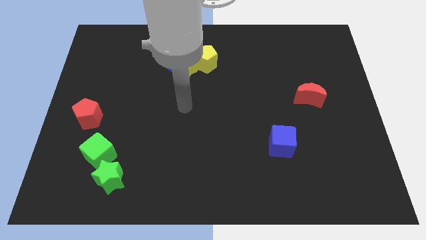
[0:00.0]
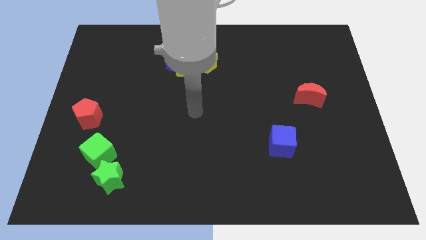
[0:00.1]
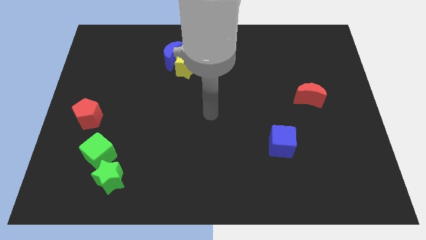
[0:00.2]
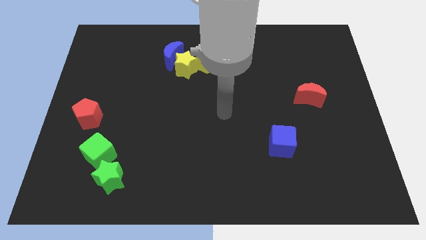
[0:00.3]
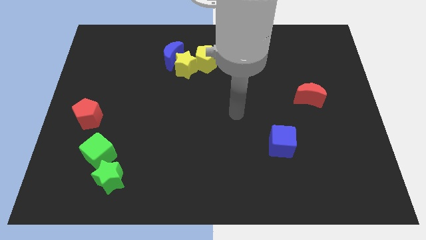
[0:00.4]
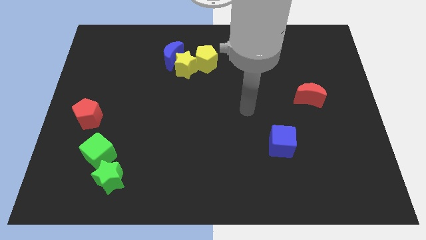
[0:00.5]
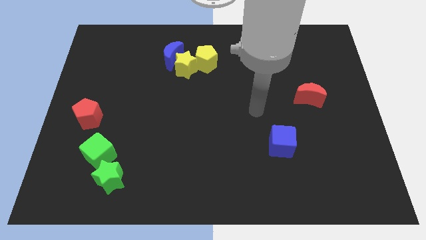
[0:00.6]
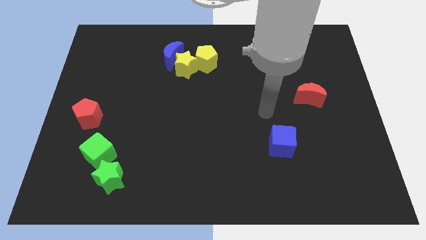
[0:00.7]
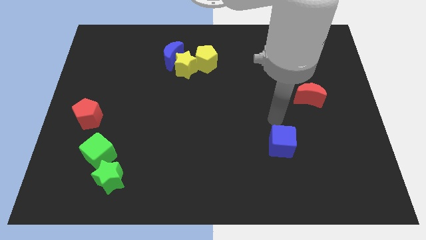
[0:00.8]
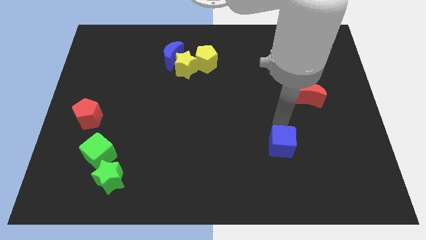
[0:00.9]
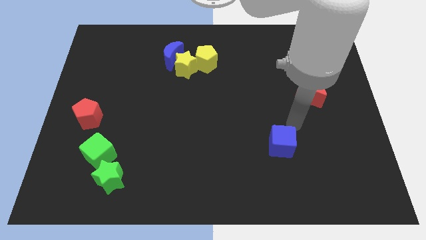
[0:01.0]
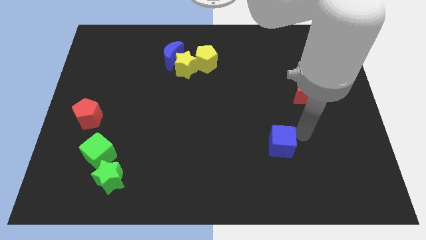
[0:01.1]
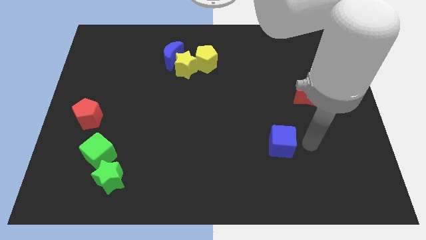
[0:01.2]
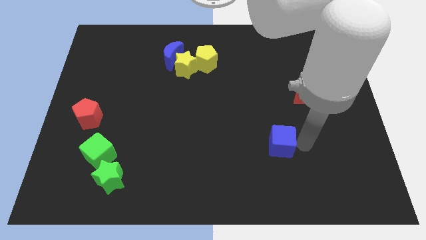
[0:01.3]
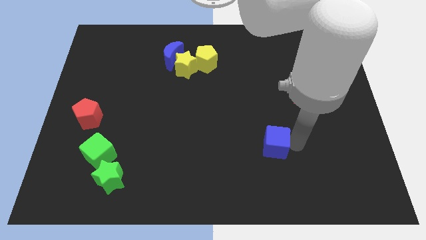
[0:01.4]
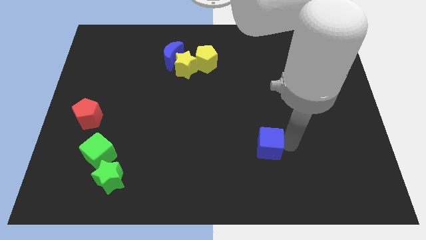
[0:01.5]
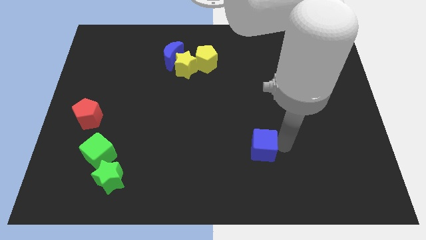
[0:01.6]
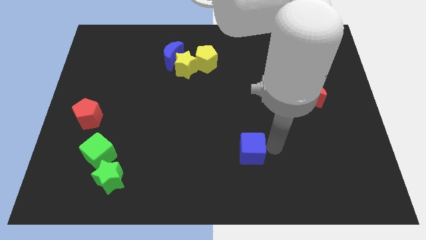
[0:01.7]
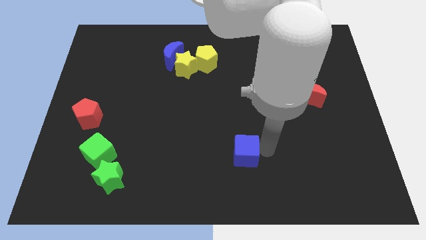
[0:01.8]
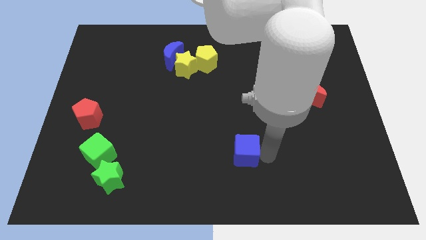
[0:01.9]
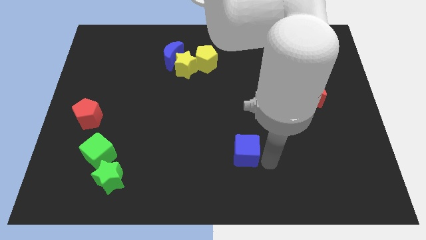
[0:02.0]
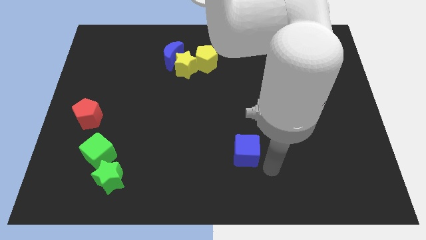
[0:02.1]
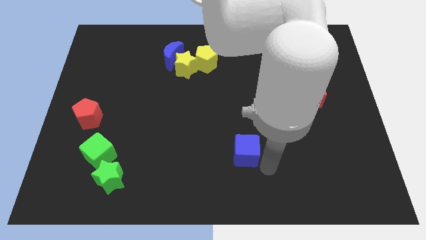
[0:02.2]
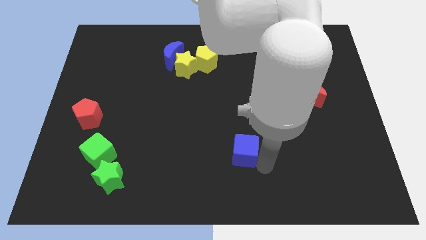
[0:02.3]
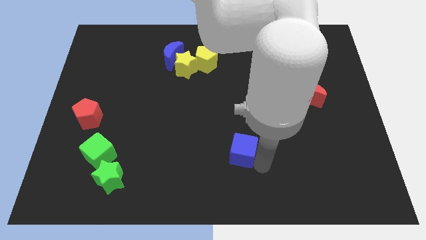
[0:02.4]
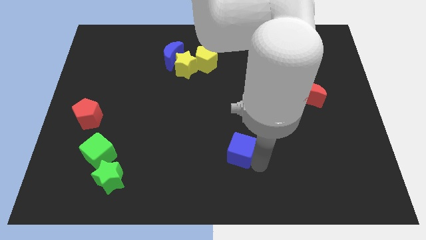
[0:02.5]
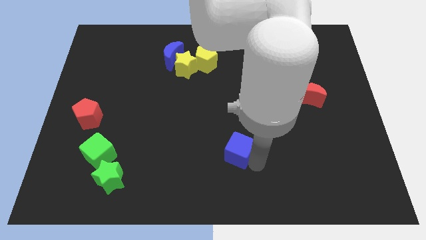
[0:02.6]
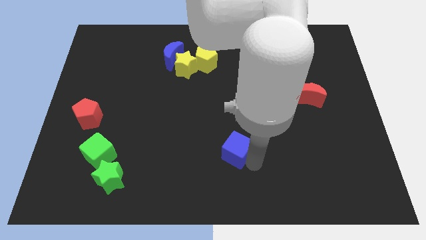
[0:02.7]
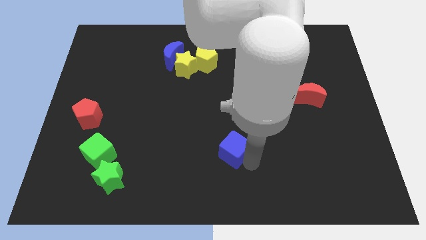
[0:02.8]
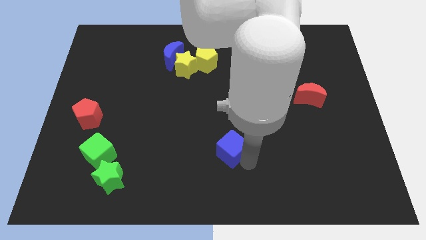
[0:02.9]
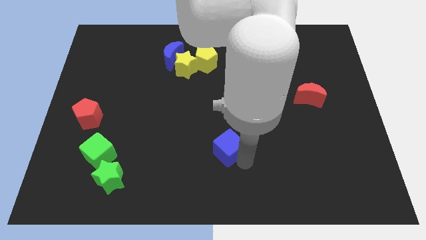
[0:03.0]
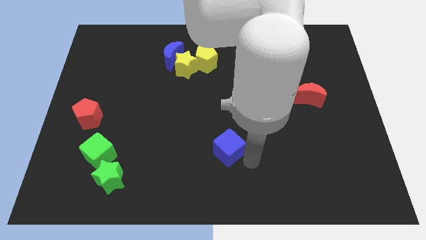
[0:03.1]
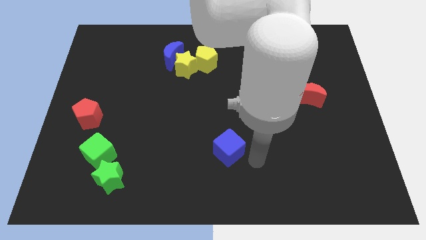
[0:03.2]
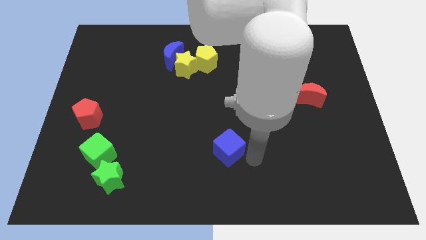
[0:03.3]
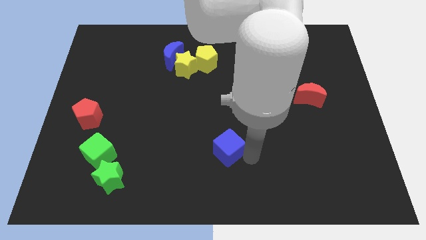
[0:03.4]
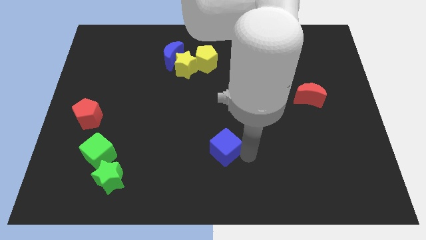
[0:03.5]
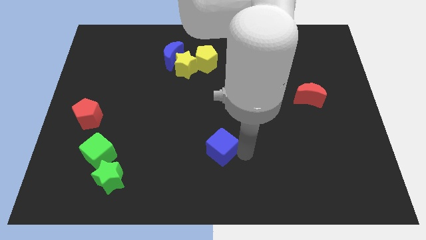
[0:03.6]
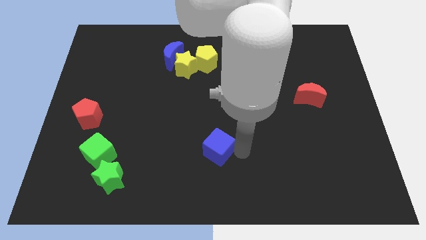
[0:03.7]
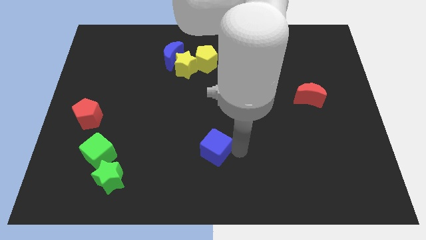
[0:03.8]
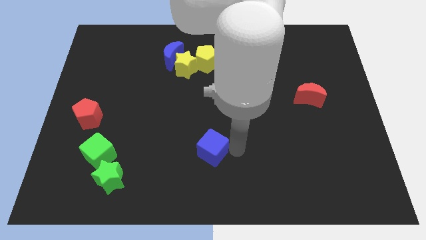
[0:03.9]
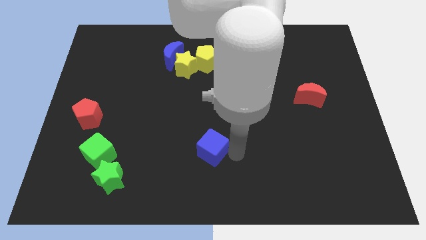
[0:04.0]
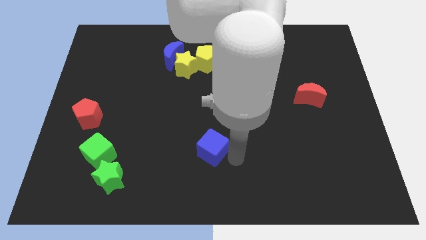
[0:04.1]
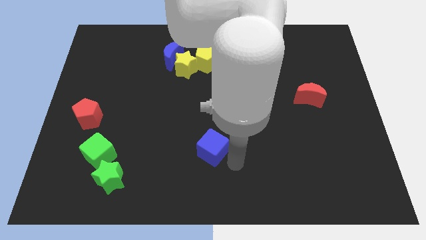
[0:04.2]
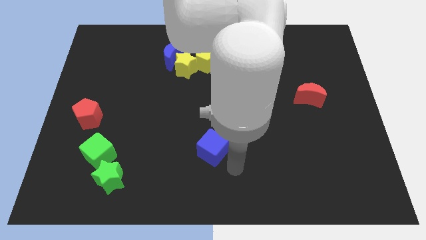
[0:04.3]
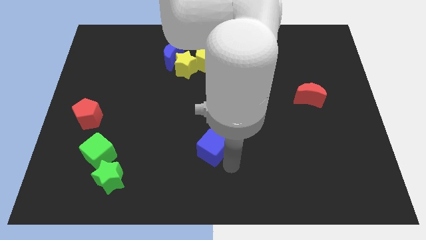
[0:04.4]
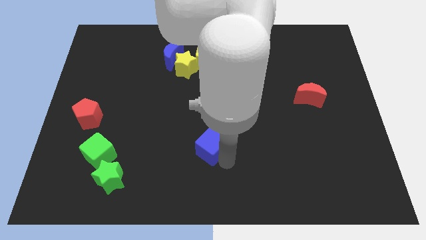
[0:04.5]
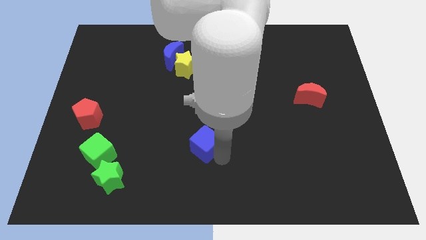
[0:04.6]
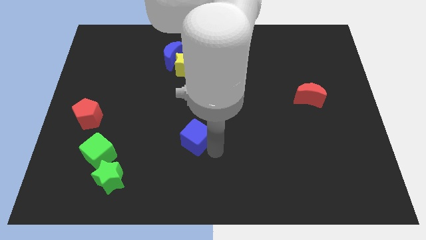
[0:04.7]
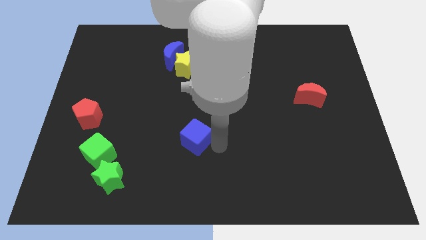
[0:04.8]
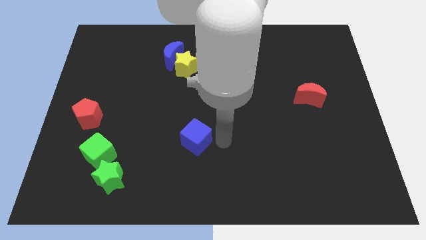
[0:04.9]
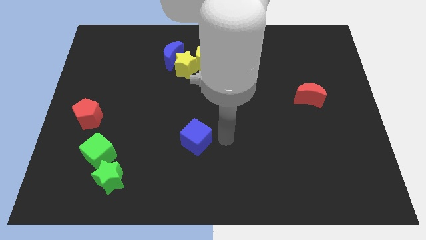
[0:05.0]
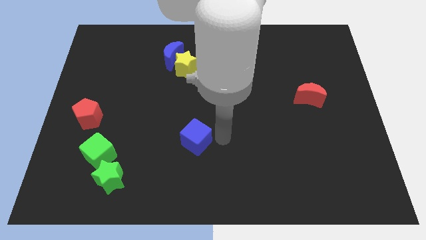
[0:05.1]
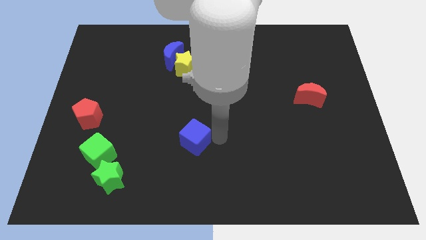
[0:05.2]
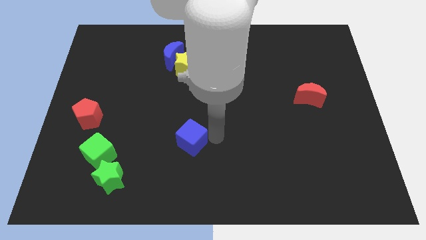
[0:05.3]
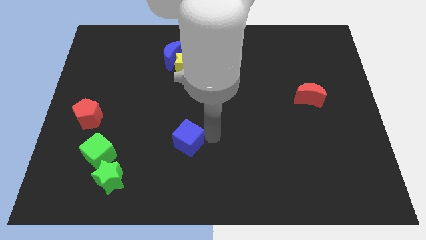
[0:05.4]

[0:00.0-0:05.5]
move the blue cube to the left

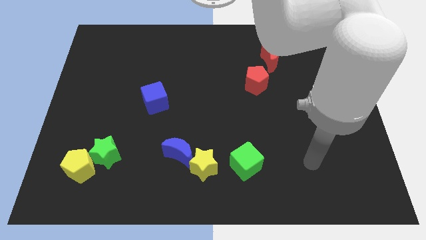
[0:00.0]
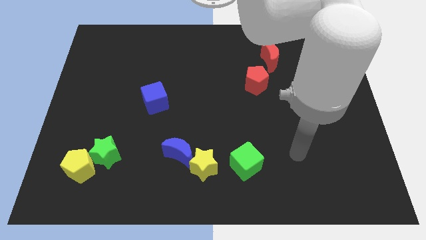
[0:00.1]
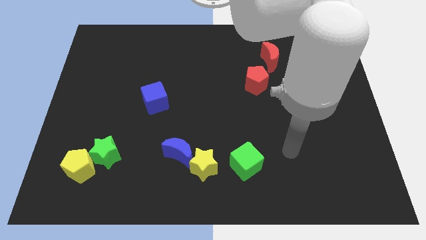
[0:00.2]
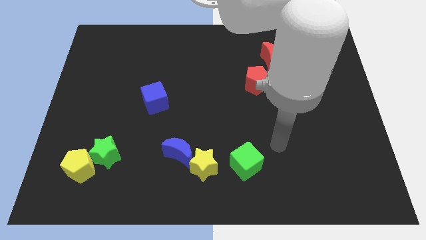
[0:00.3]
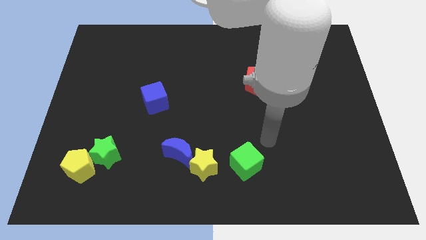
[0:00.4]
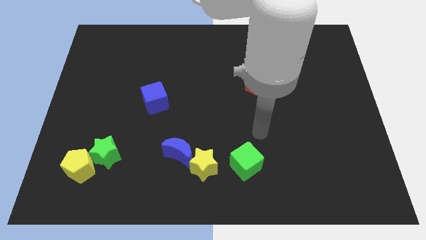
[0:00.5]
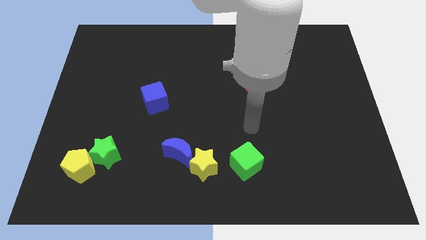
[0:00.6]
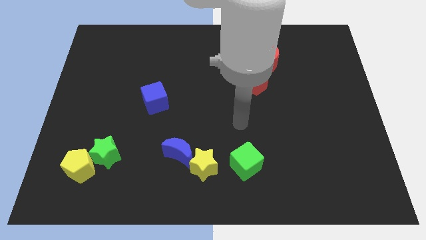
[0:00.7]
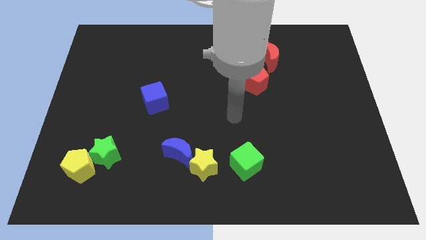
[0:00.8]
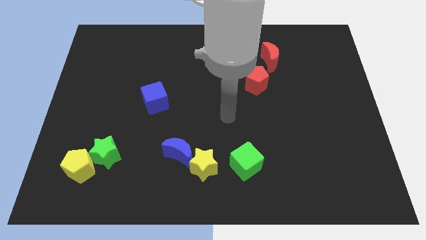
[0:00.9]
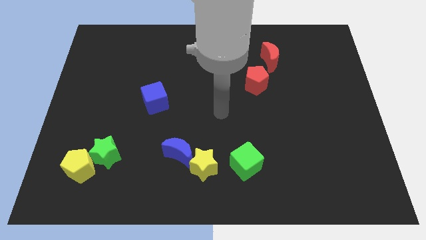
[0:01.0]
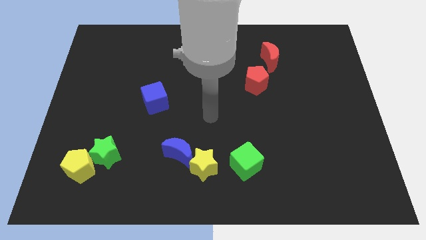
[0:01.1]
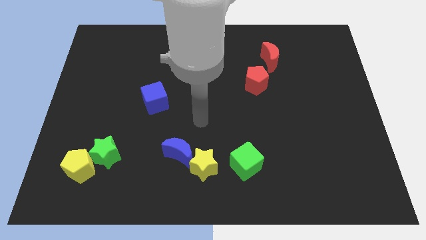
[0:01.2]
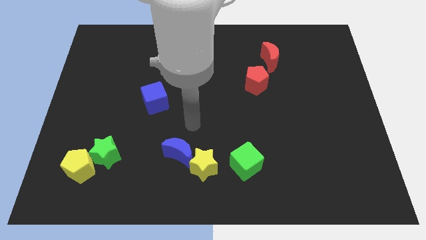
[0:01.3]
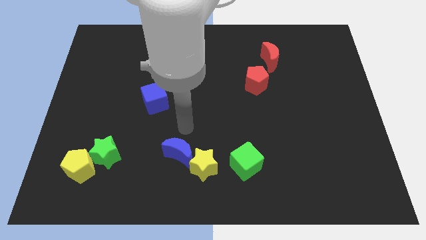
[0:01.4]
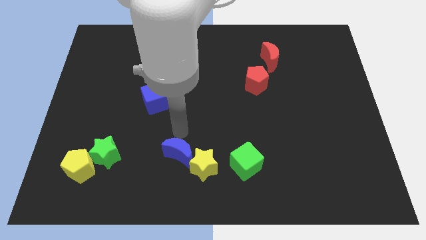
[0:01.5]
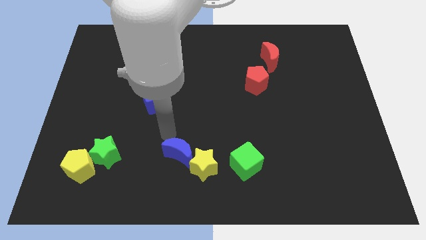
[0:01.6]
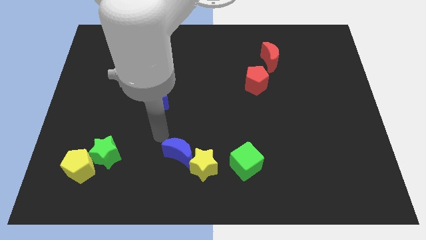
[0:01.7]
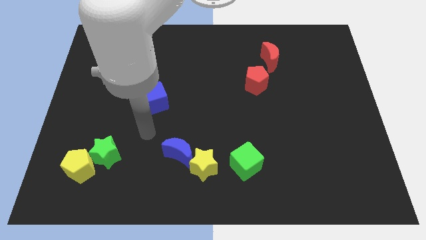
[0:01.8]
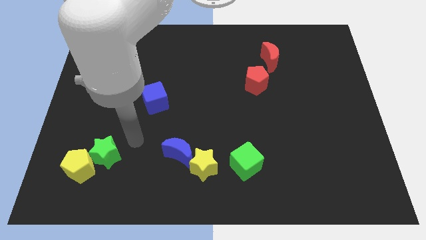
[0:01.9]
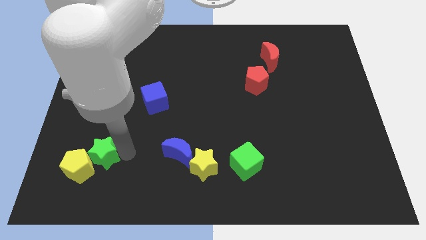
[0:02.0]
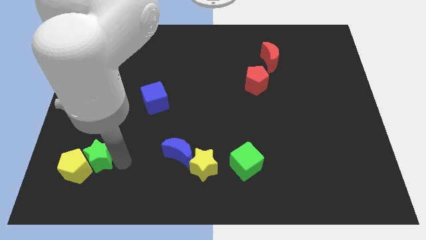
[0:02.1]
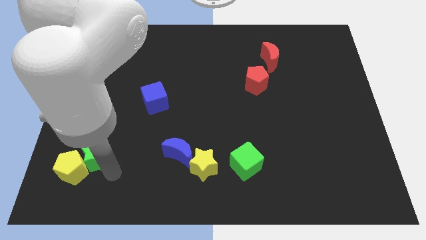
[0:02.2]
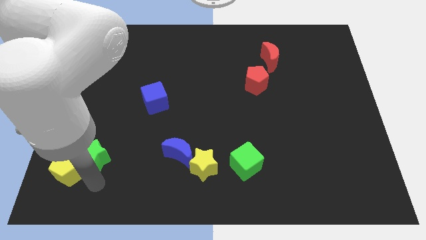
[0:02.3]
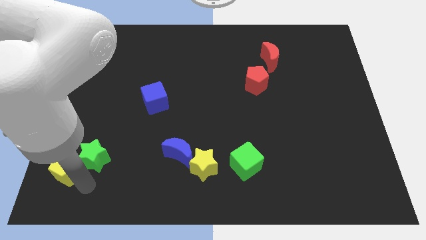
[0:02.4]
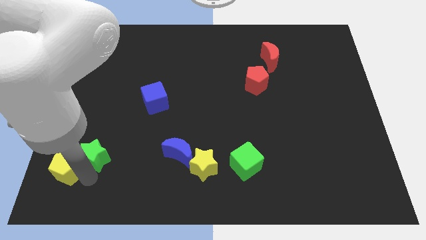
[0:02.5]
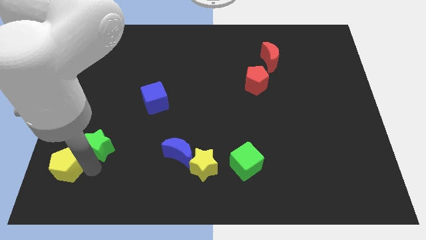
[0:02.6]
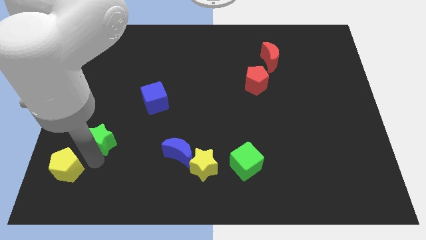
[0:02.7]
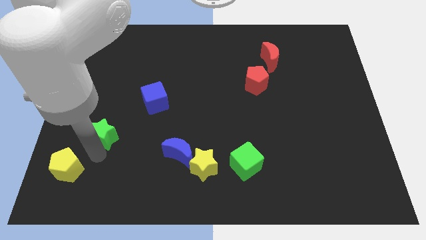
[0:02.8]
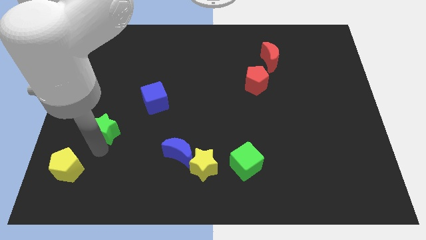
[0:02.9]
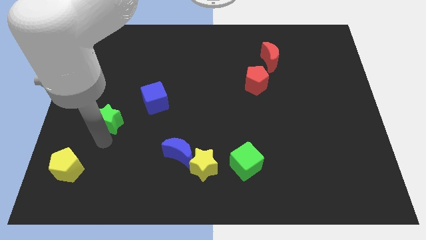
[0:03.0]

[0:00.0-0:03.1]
slide the green star a little bit upwards
